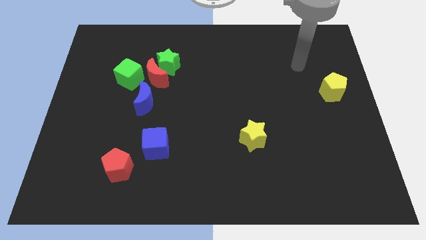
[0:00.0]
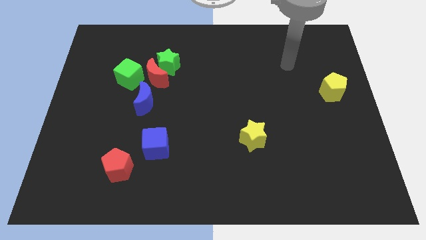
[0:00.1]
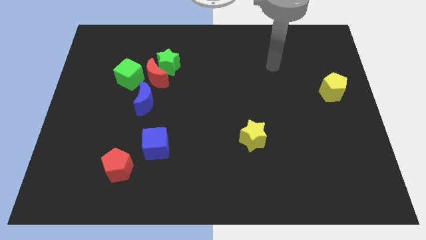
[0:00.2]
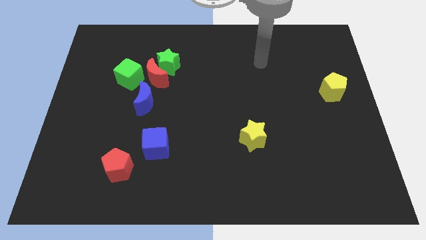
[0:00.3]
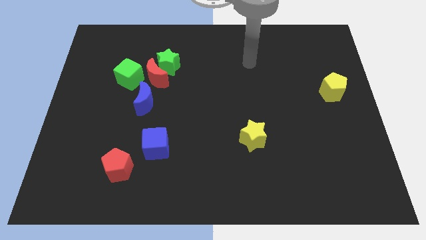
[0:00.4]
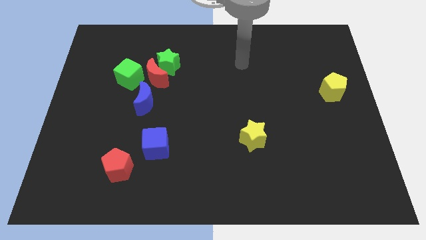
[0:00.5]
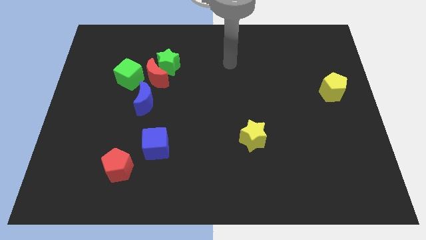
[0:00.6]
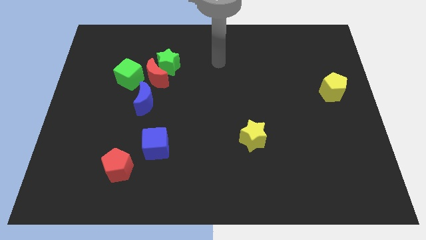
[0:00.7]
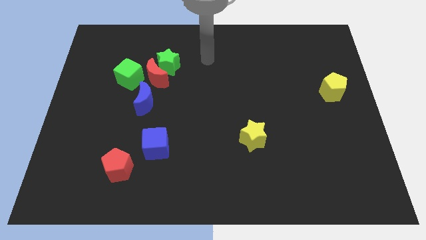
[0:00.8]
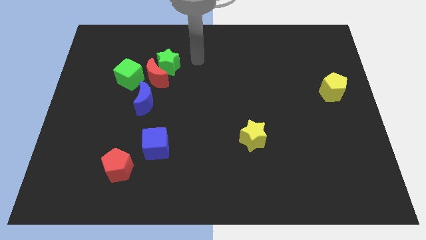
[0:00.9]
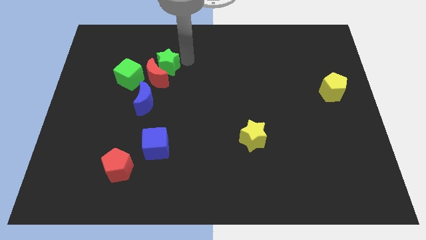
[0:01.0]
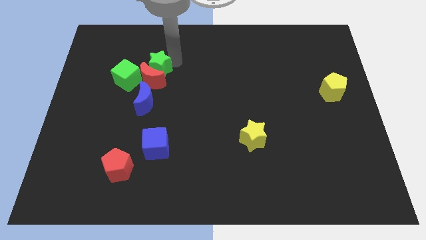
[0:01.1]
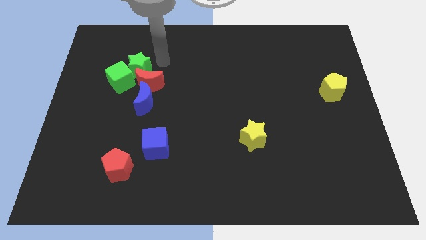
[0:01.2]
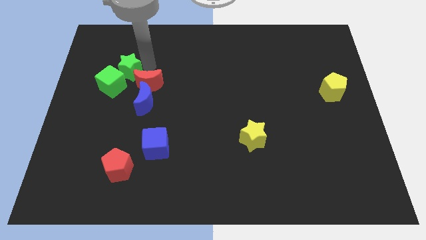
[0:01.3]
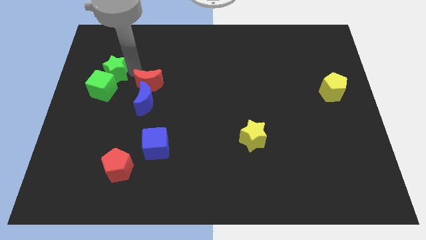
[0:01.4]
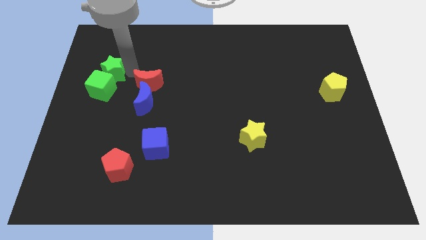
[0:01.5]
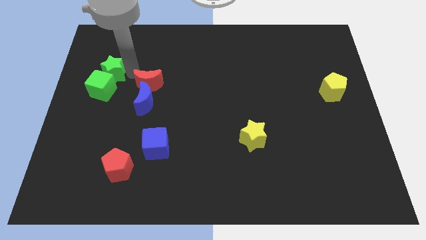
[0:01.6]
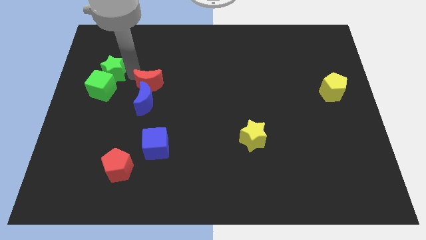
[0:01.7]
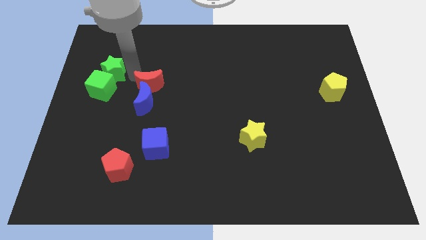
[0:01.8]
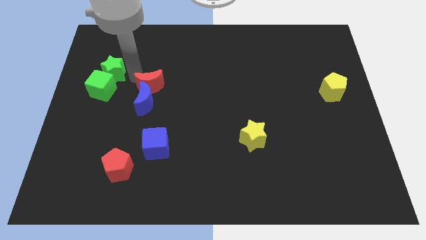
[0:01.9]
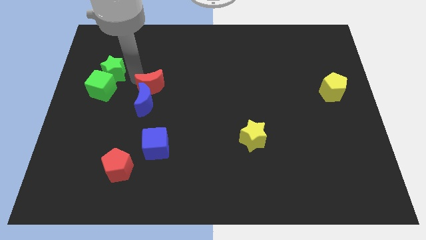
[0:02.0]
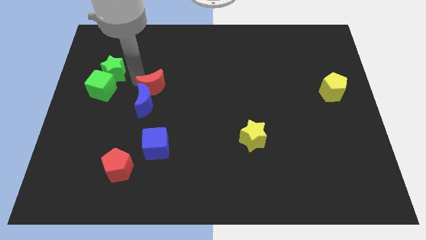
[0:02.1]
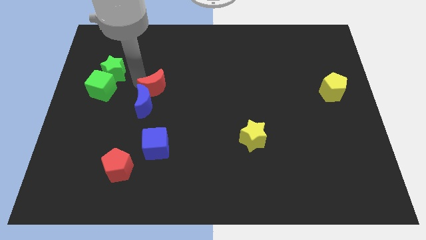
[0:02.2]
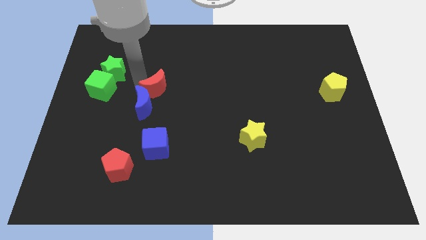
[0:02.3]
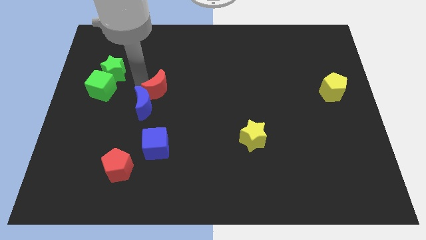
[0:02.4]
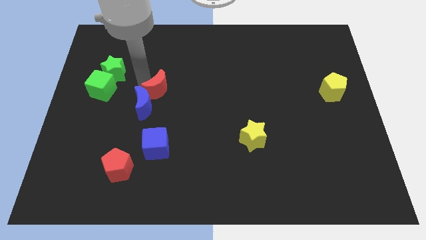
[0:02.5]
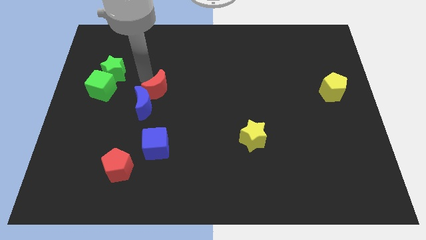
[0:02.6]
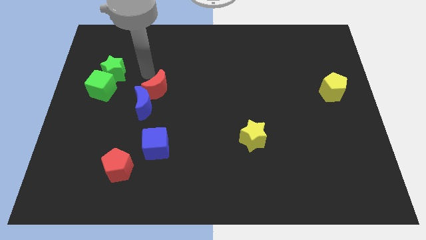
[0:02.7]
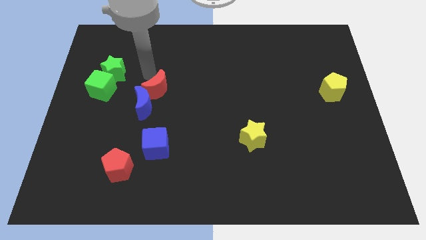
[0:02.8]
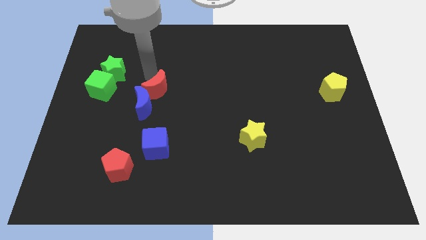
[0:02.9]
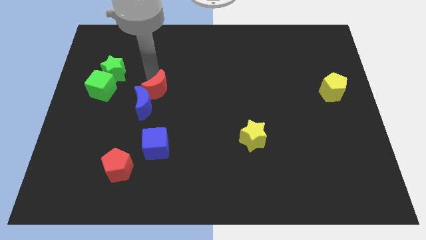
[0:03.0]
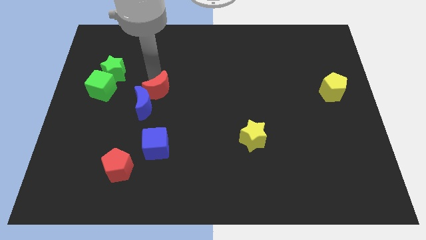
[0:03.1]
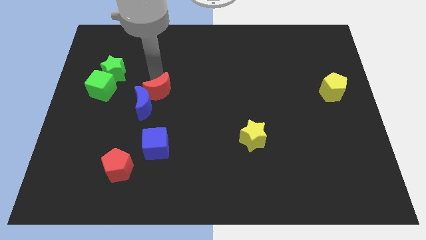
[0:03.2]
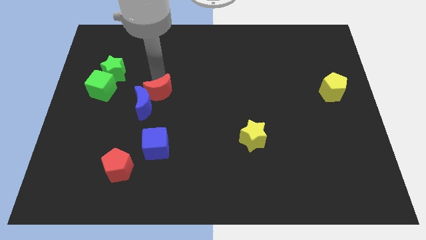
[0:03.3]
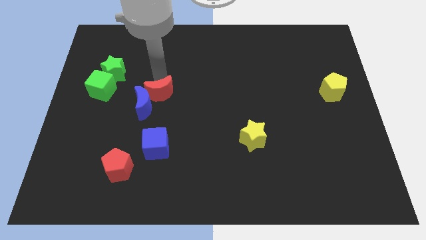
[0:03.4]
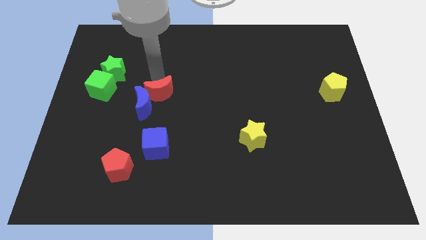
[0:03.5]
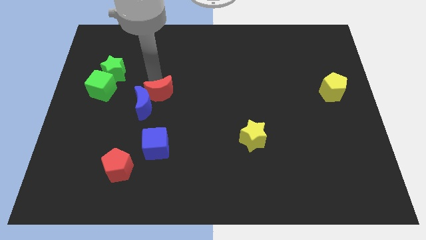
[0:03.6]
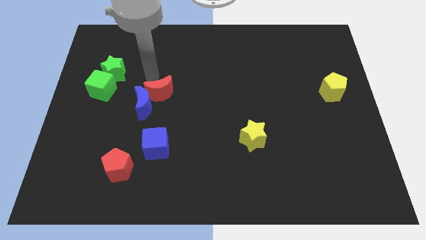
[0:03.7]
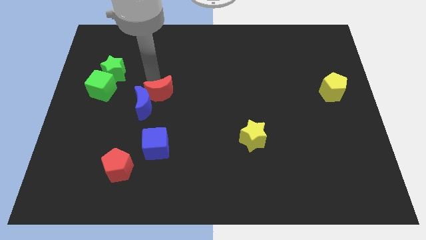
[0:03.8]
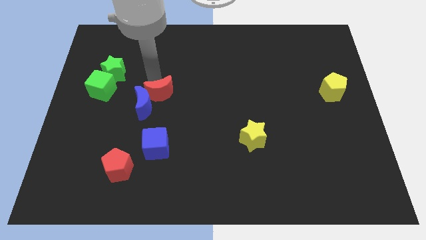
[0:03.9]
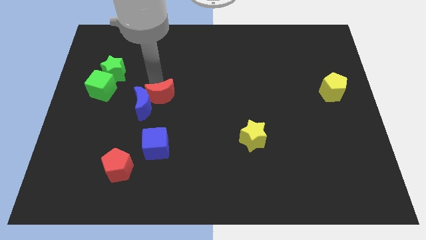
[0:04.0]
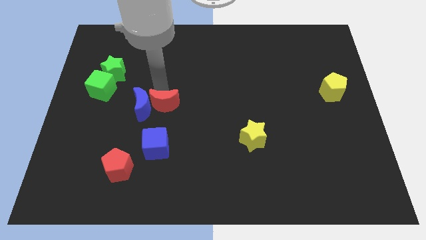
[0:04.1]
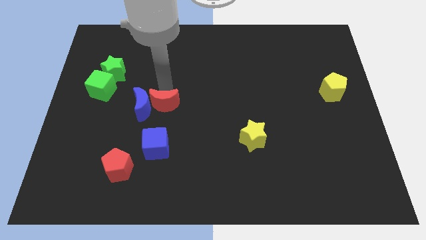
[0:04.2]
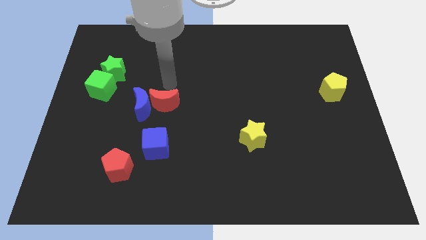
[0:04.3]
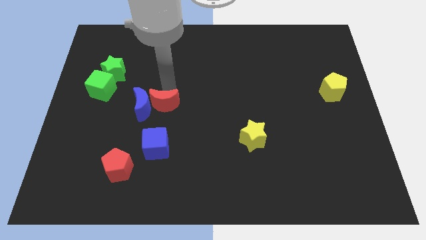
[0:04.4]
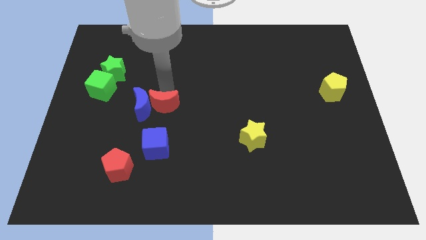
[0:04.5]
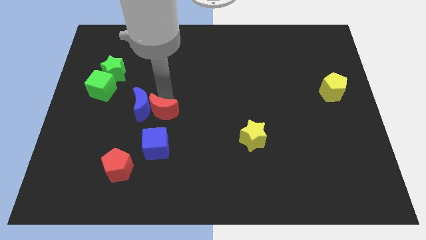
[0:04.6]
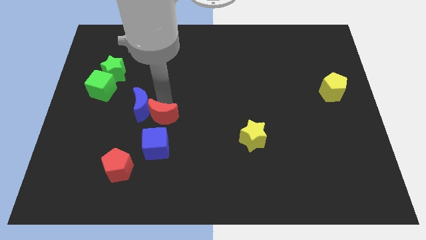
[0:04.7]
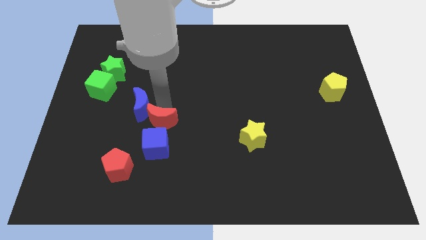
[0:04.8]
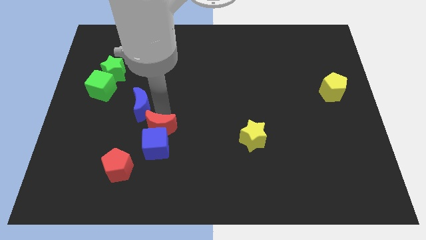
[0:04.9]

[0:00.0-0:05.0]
move the red moon towards the blue cube

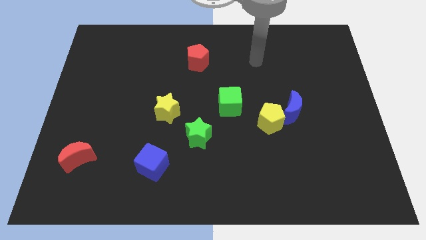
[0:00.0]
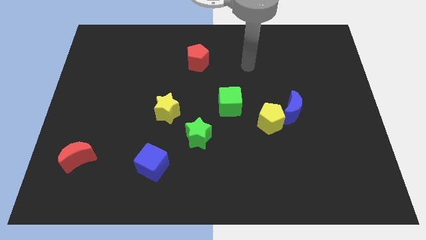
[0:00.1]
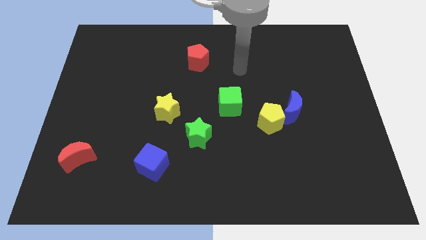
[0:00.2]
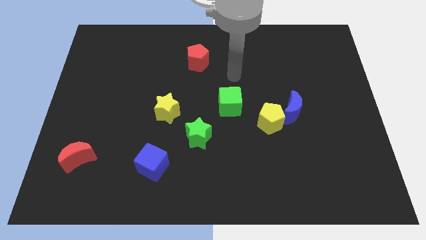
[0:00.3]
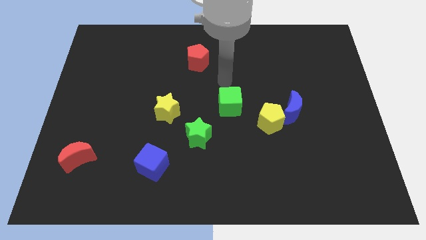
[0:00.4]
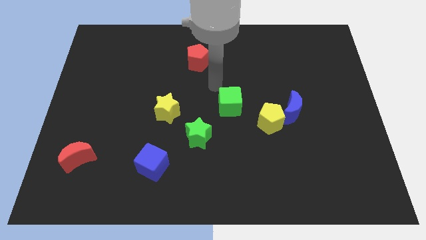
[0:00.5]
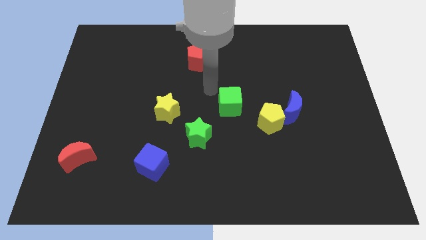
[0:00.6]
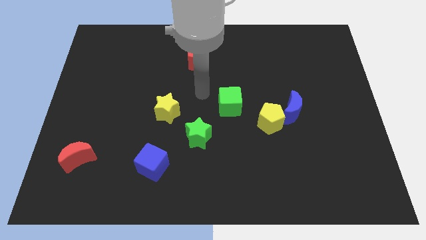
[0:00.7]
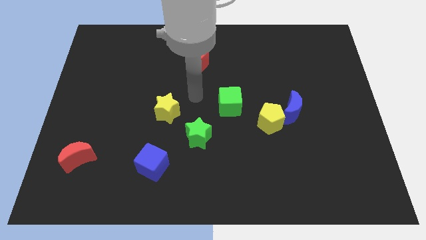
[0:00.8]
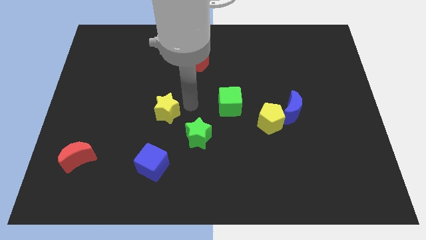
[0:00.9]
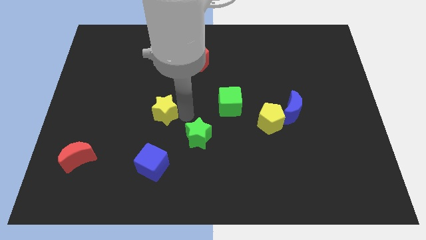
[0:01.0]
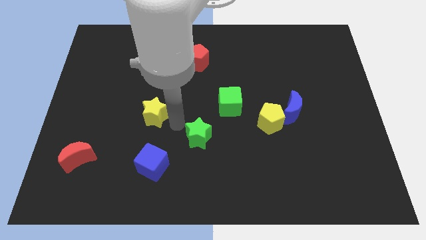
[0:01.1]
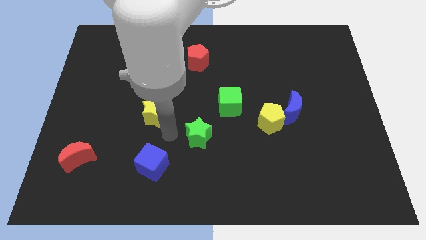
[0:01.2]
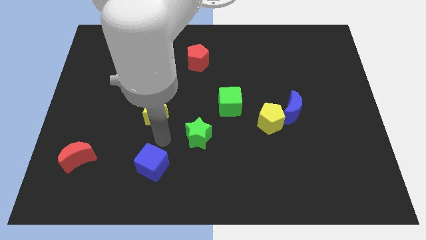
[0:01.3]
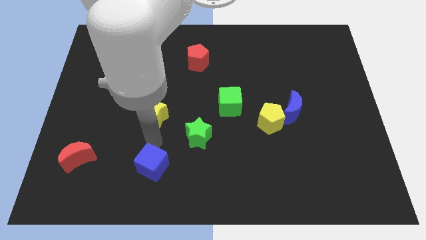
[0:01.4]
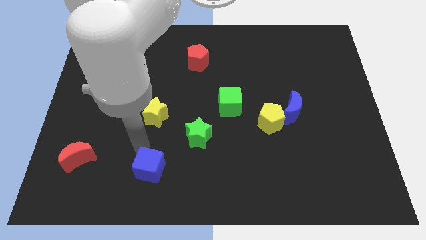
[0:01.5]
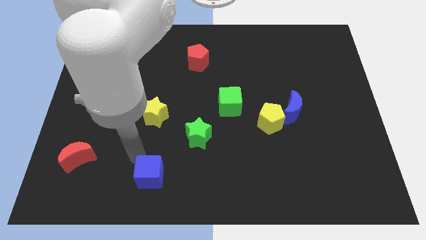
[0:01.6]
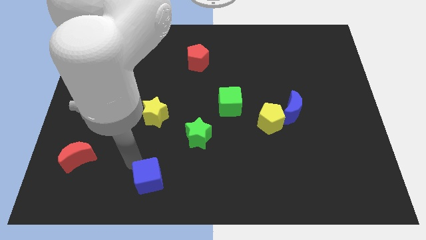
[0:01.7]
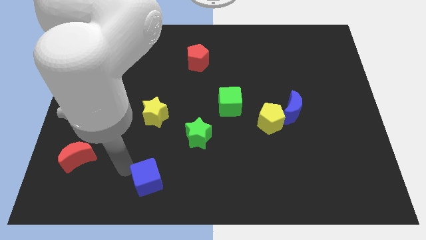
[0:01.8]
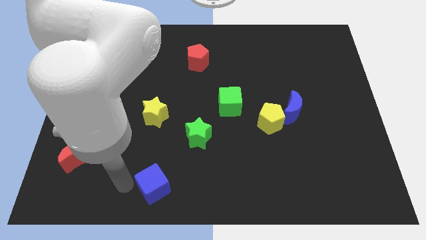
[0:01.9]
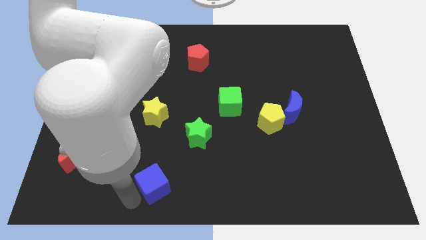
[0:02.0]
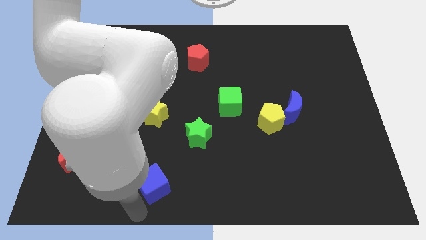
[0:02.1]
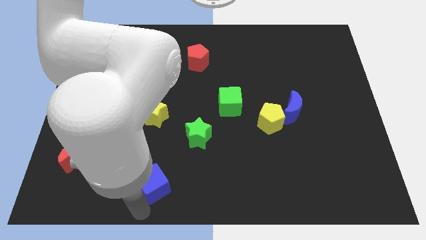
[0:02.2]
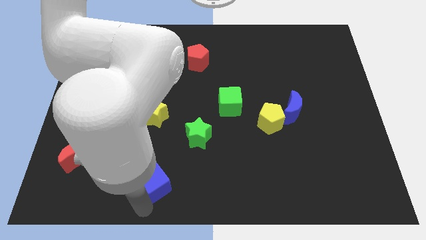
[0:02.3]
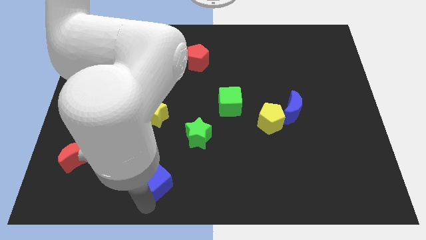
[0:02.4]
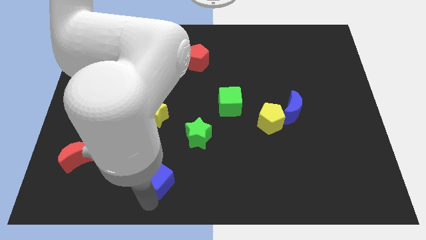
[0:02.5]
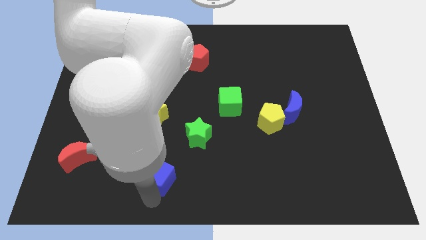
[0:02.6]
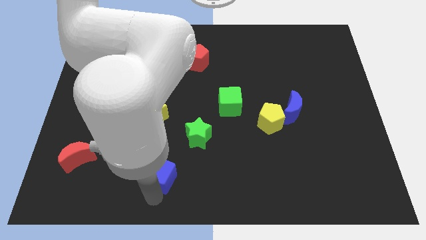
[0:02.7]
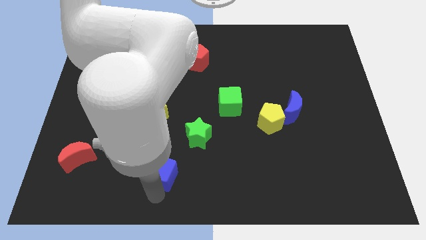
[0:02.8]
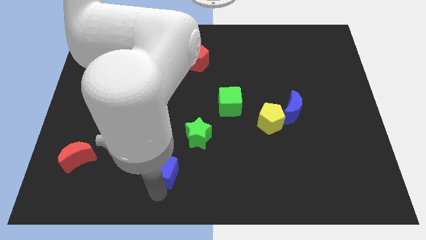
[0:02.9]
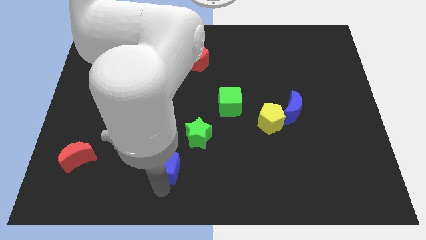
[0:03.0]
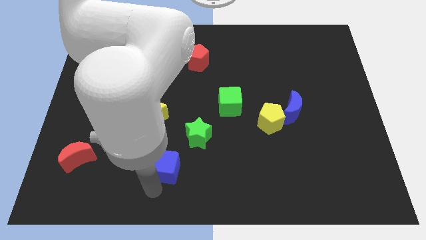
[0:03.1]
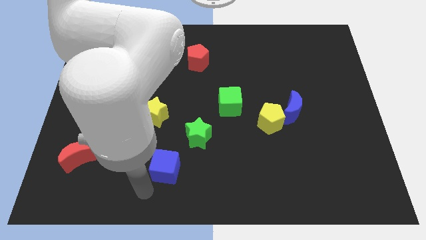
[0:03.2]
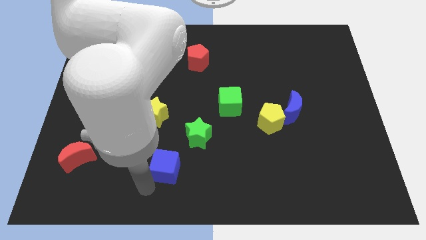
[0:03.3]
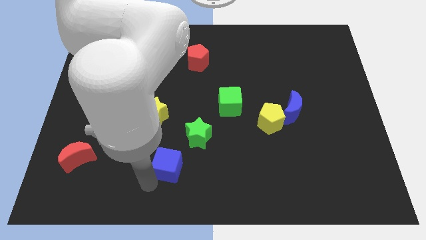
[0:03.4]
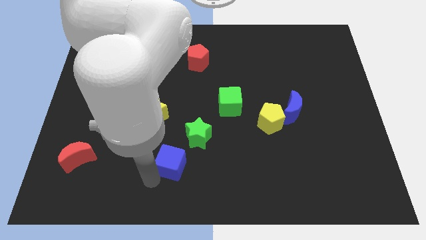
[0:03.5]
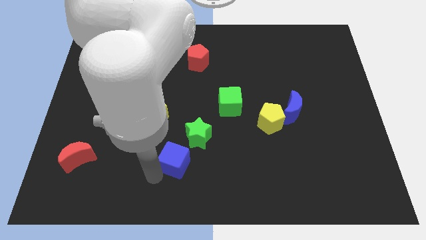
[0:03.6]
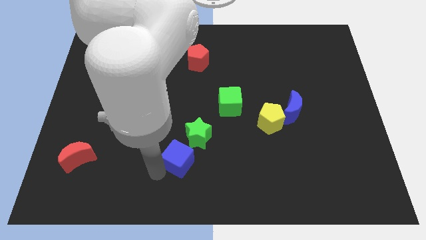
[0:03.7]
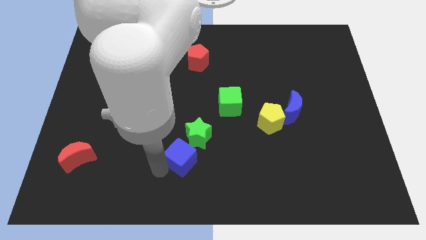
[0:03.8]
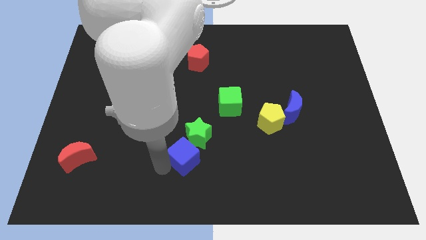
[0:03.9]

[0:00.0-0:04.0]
slide the blue cube next to the green star
